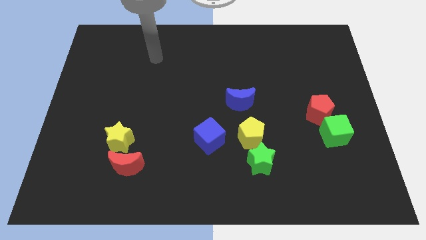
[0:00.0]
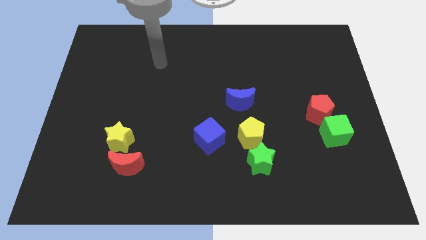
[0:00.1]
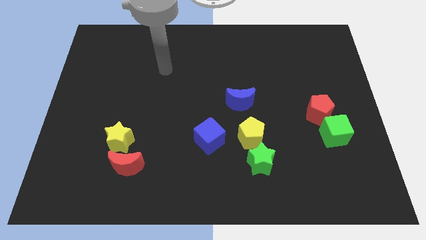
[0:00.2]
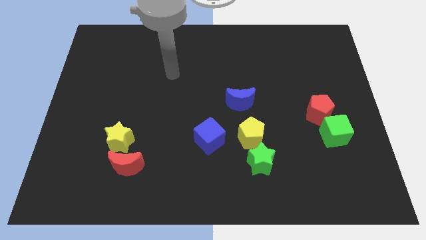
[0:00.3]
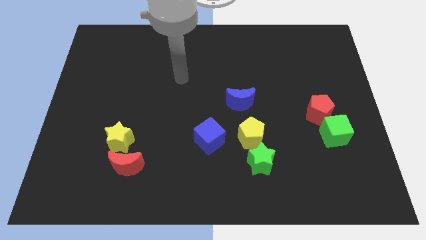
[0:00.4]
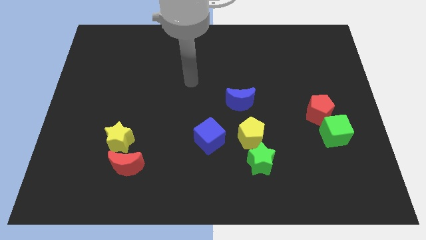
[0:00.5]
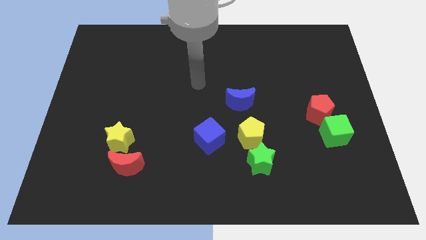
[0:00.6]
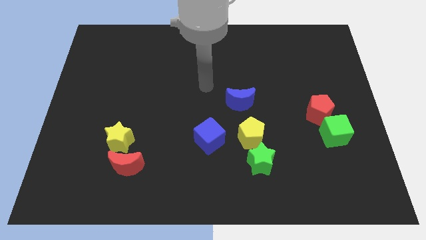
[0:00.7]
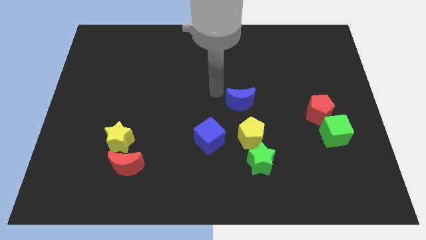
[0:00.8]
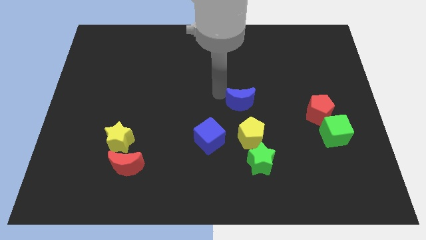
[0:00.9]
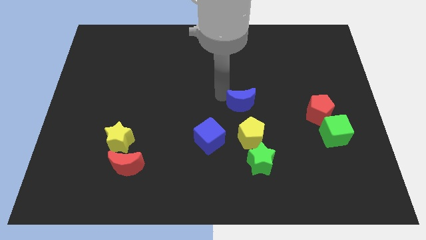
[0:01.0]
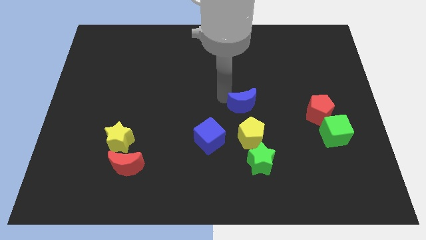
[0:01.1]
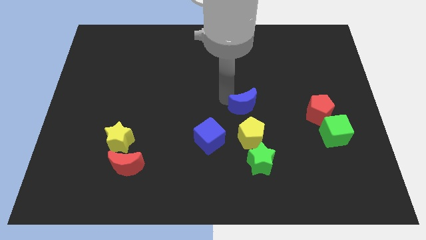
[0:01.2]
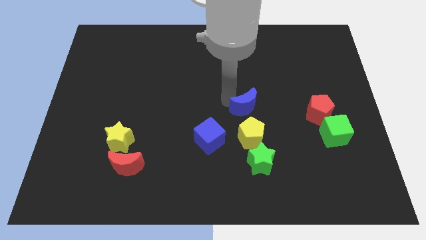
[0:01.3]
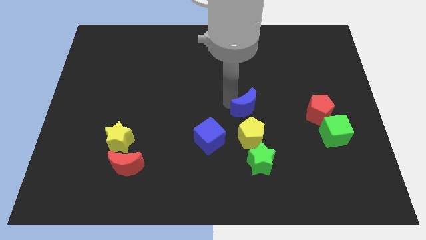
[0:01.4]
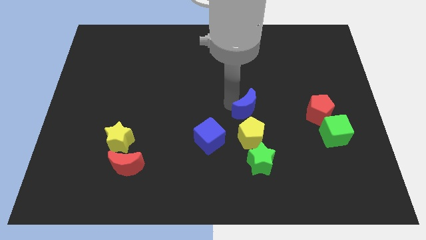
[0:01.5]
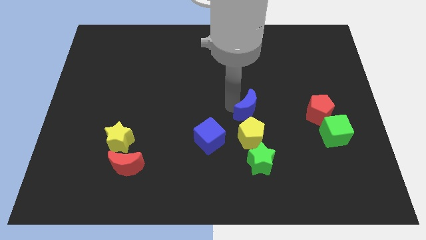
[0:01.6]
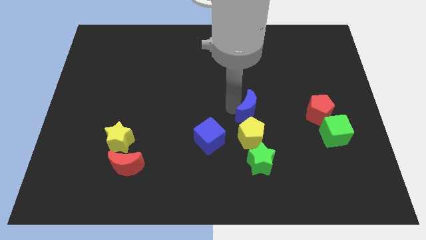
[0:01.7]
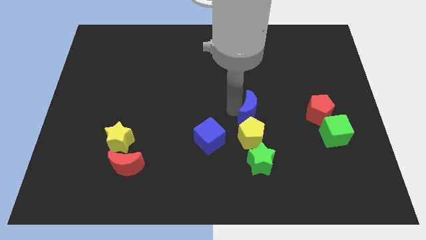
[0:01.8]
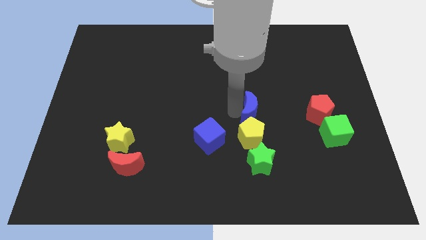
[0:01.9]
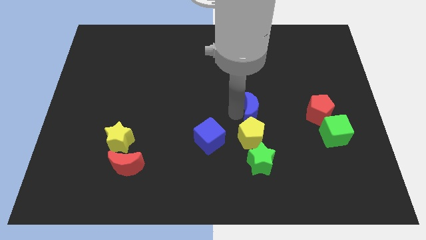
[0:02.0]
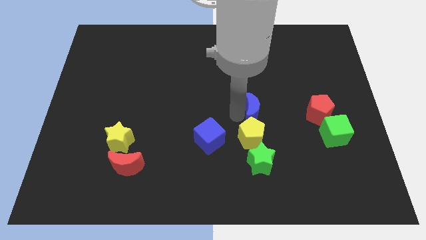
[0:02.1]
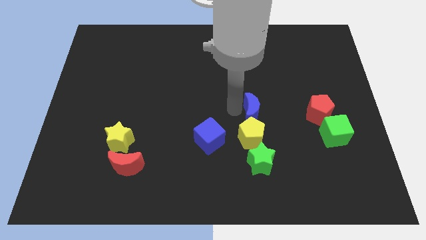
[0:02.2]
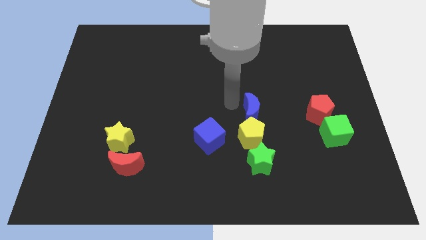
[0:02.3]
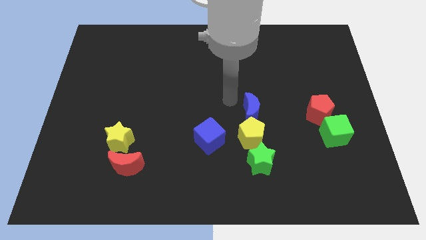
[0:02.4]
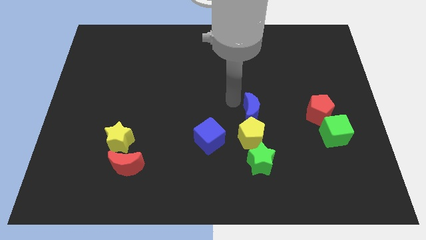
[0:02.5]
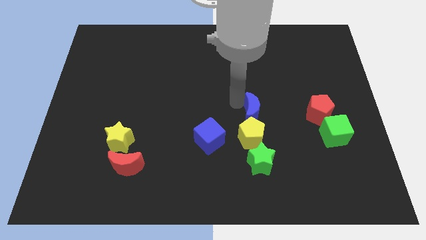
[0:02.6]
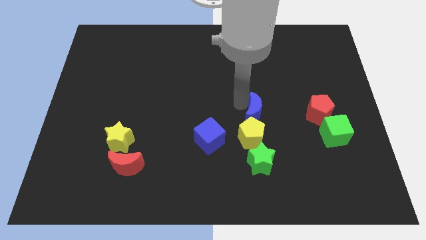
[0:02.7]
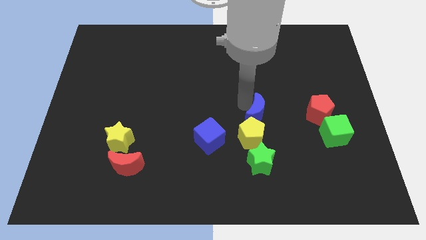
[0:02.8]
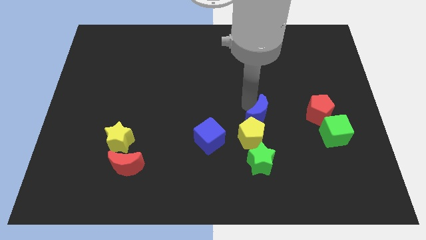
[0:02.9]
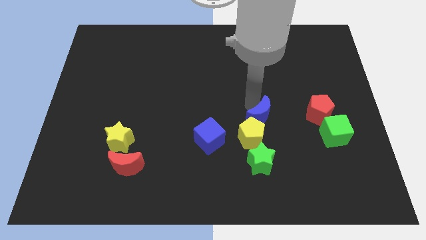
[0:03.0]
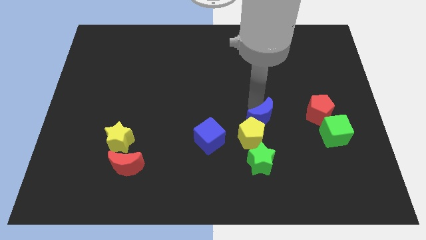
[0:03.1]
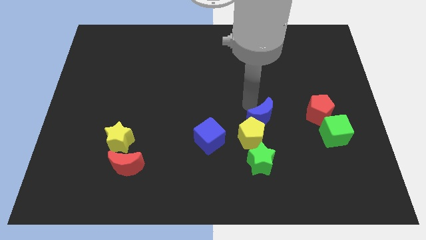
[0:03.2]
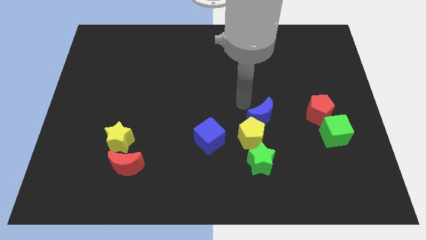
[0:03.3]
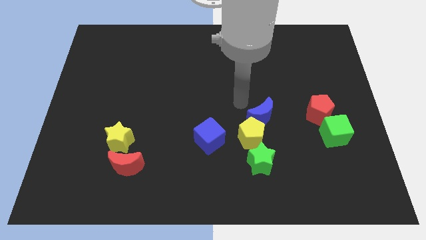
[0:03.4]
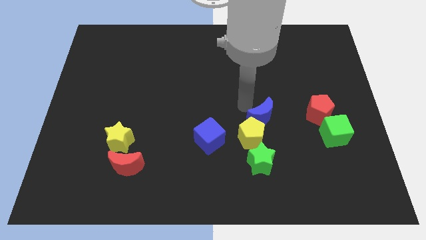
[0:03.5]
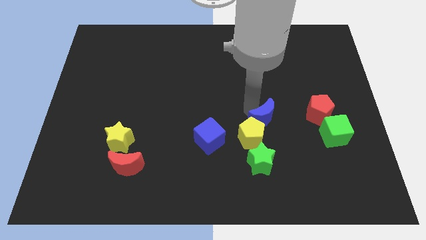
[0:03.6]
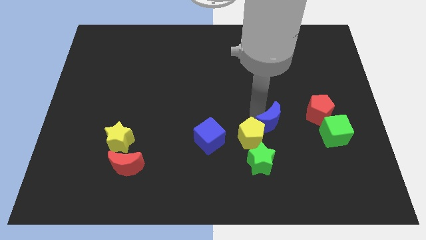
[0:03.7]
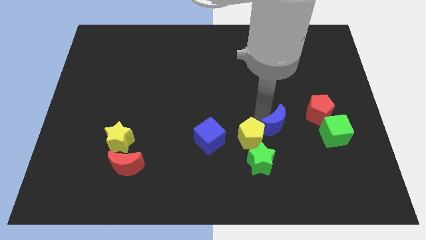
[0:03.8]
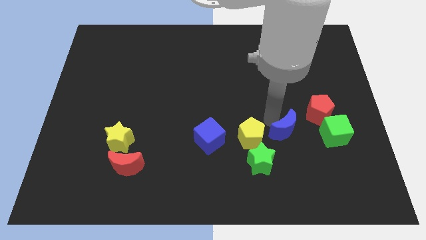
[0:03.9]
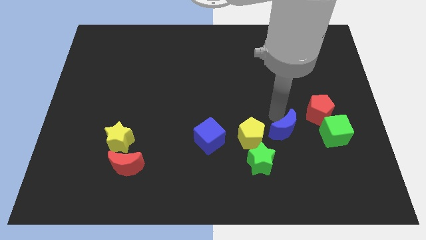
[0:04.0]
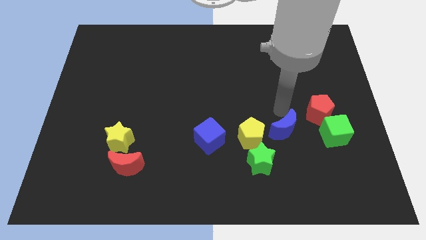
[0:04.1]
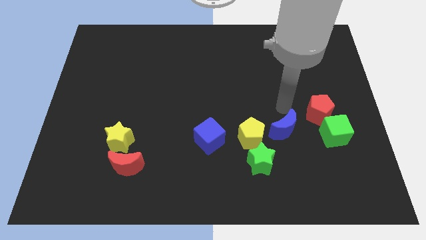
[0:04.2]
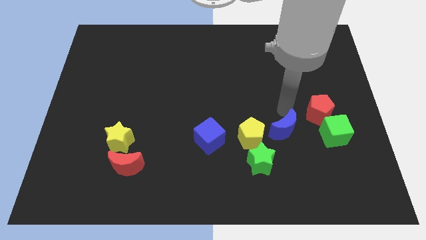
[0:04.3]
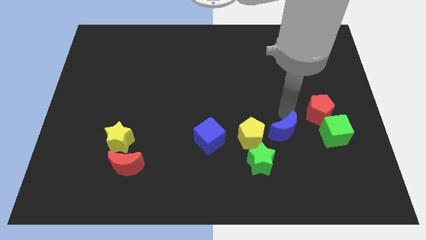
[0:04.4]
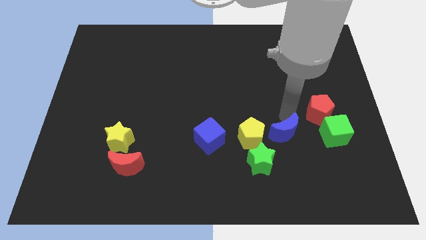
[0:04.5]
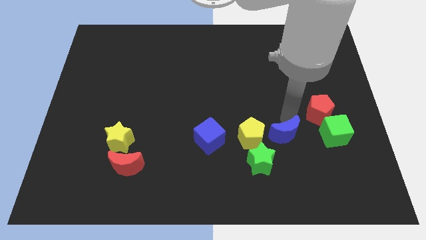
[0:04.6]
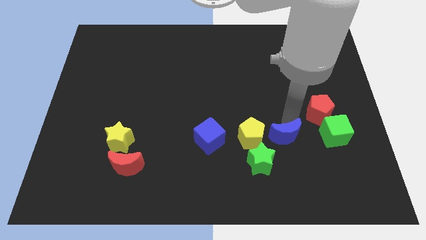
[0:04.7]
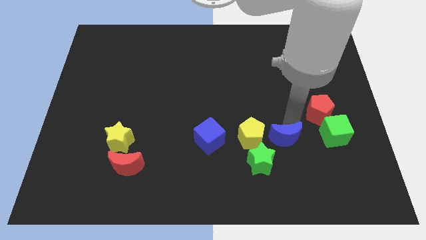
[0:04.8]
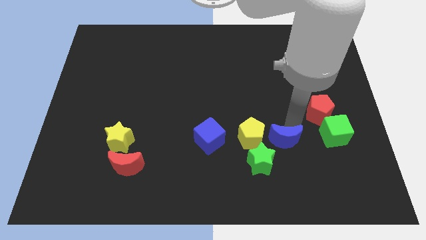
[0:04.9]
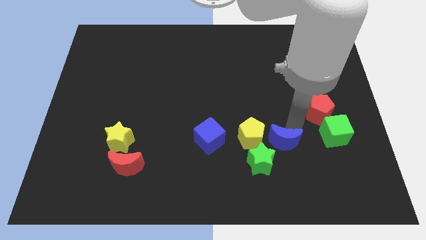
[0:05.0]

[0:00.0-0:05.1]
slightly push the blue moon down

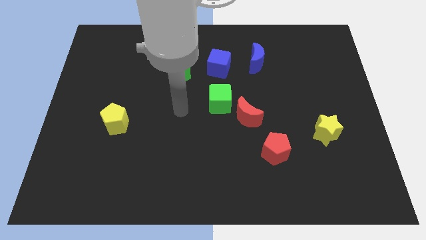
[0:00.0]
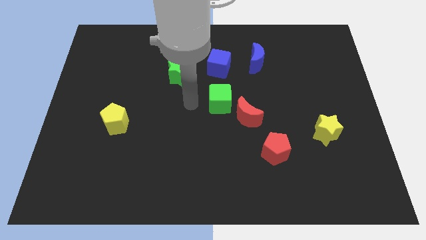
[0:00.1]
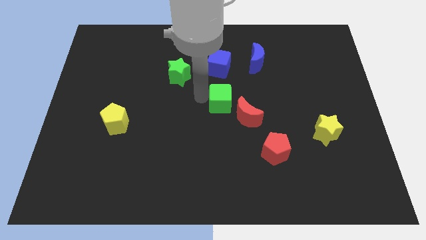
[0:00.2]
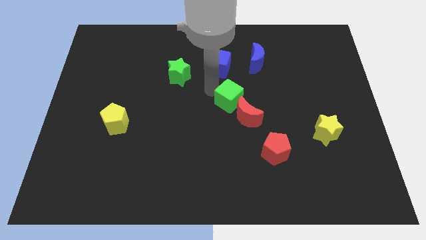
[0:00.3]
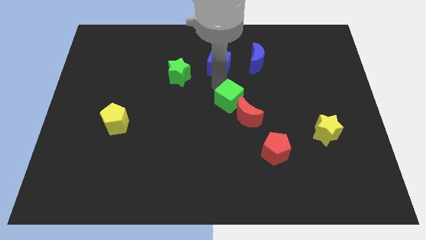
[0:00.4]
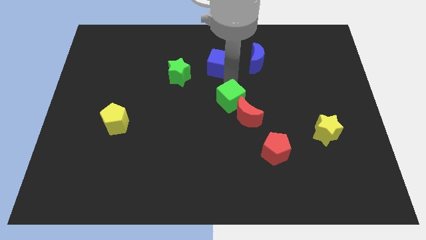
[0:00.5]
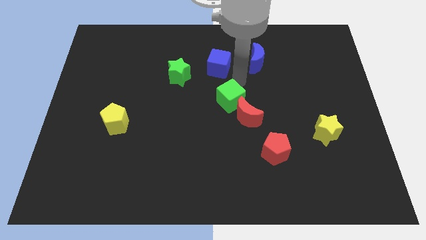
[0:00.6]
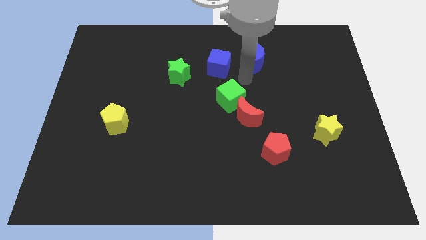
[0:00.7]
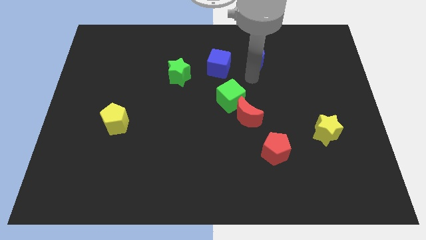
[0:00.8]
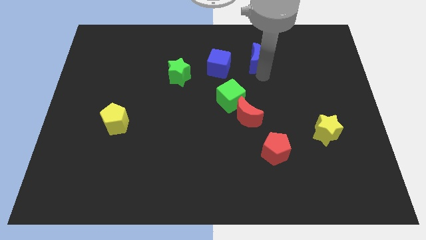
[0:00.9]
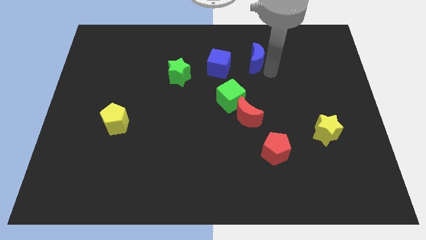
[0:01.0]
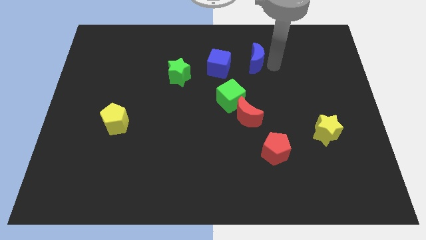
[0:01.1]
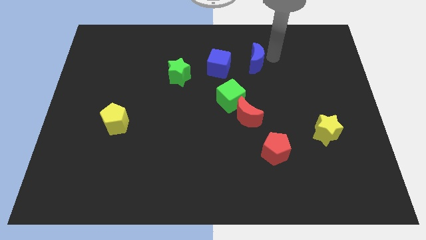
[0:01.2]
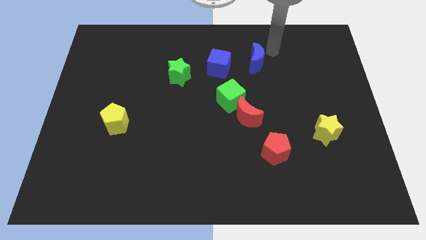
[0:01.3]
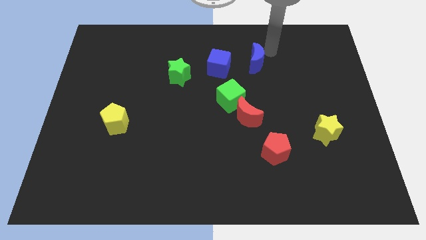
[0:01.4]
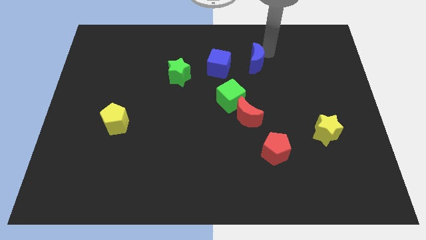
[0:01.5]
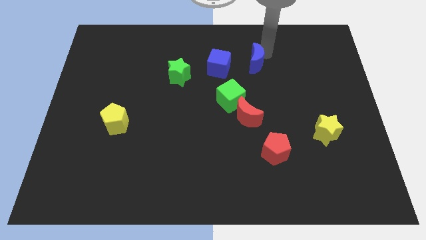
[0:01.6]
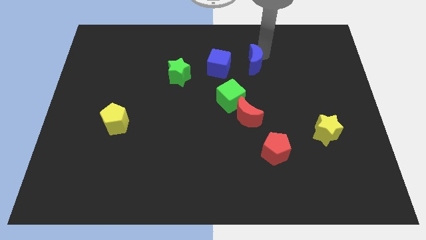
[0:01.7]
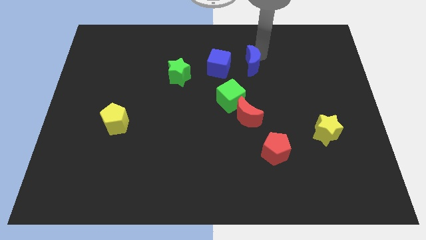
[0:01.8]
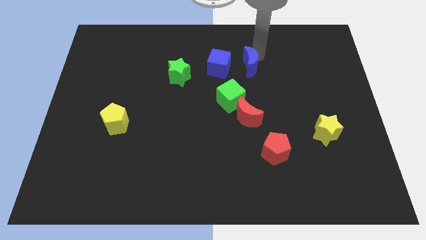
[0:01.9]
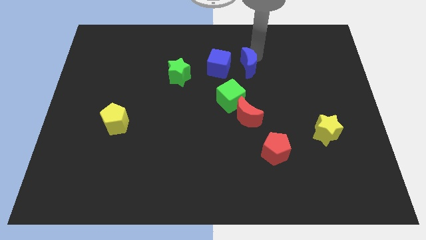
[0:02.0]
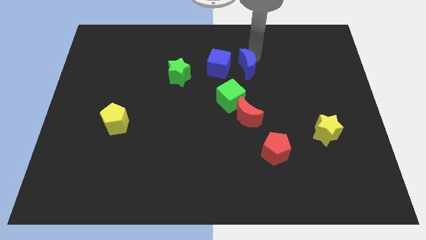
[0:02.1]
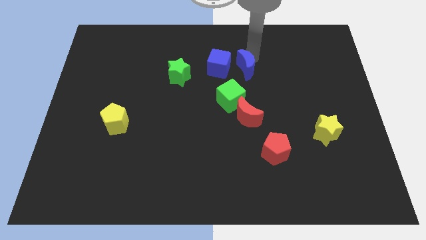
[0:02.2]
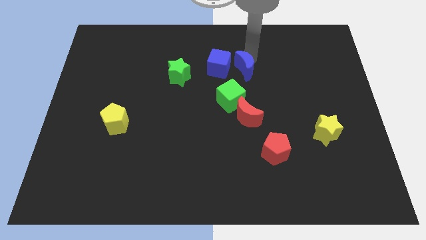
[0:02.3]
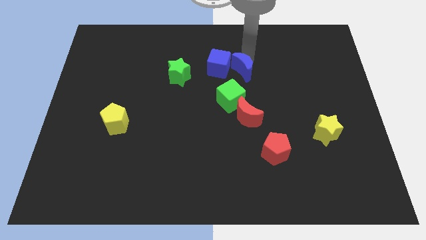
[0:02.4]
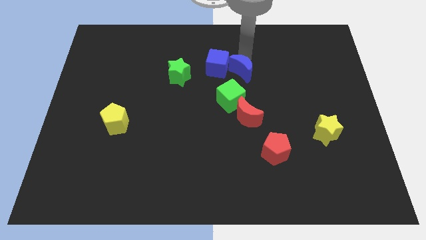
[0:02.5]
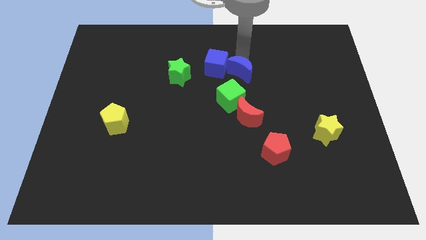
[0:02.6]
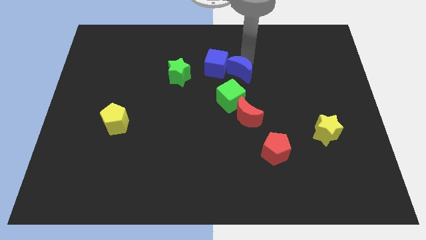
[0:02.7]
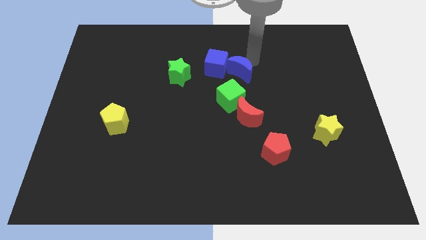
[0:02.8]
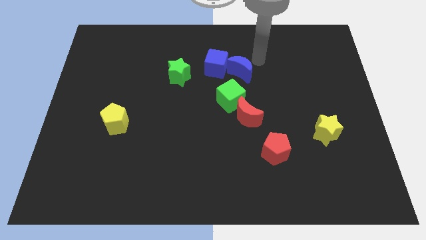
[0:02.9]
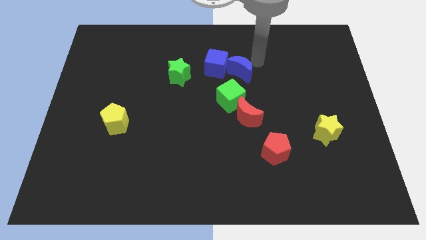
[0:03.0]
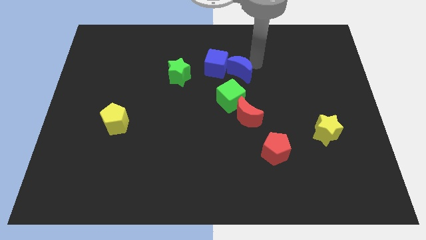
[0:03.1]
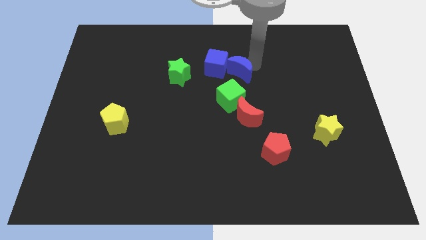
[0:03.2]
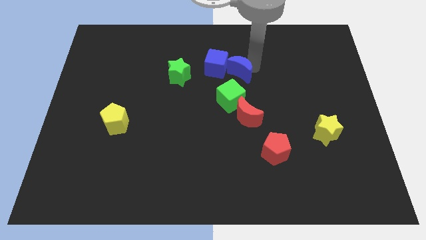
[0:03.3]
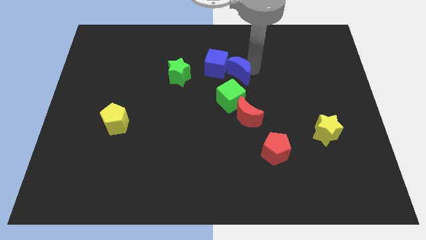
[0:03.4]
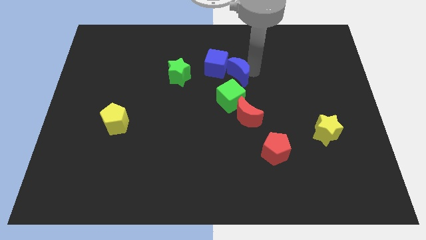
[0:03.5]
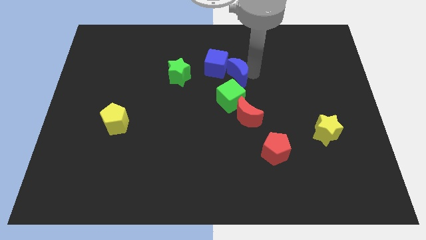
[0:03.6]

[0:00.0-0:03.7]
push the blue moon slightly diagonally down and to the left
